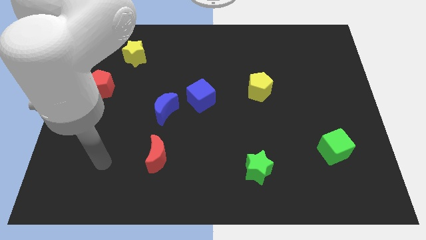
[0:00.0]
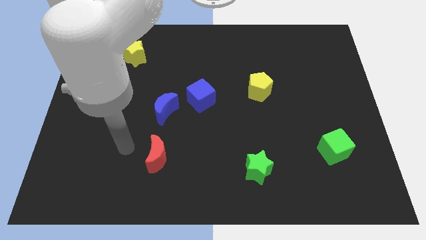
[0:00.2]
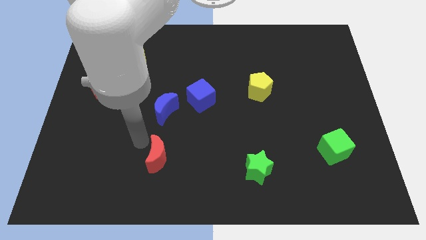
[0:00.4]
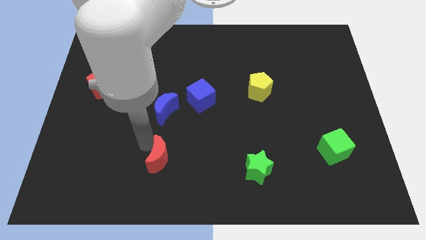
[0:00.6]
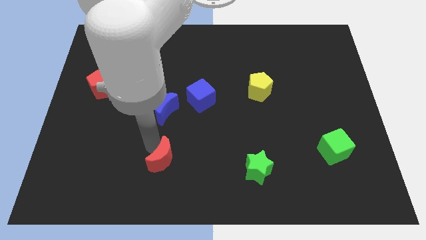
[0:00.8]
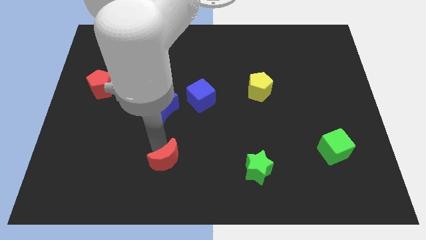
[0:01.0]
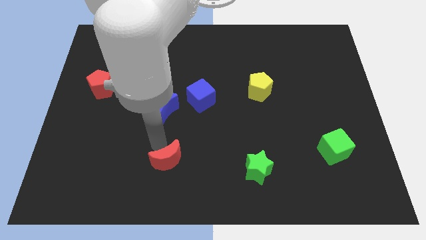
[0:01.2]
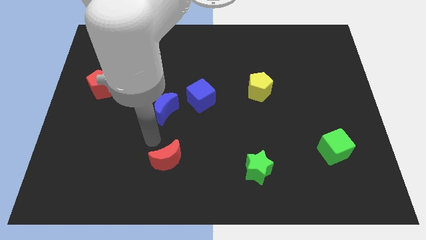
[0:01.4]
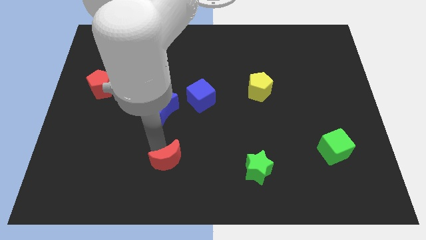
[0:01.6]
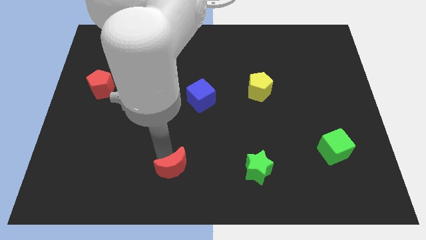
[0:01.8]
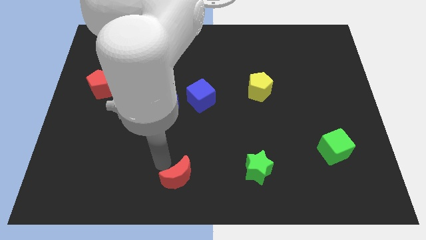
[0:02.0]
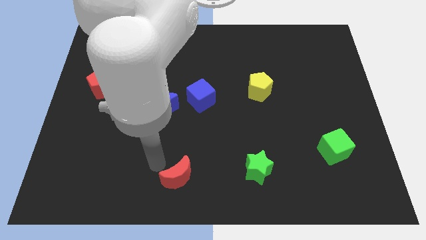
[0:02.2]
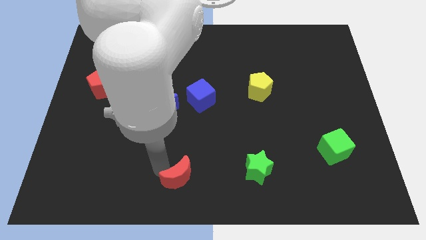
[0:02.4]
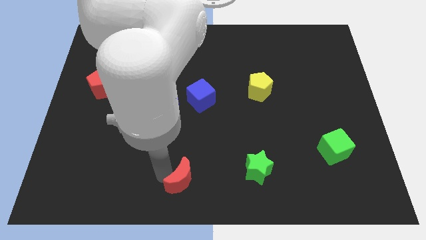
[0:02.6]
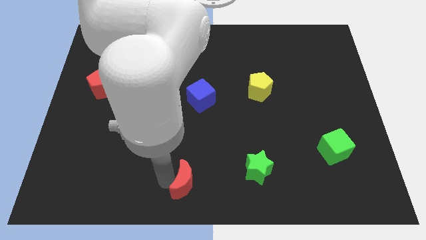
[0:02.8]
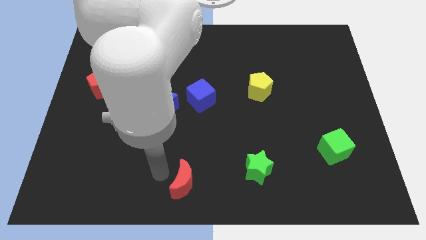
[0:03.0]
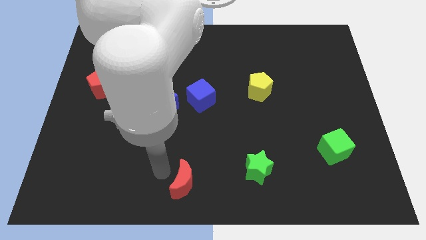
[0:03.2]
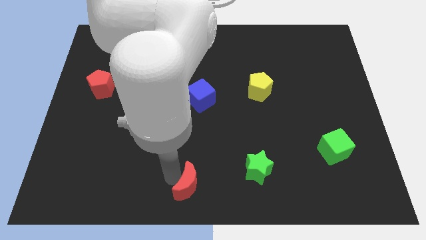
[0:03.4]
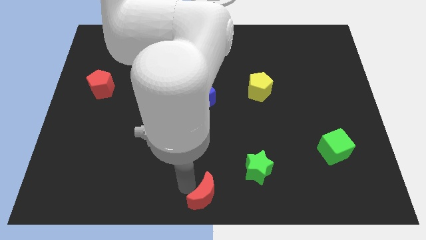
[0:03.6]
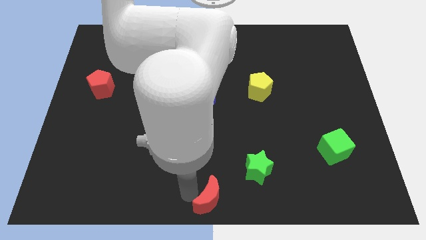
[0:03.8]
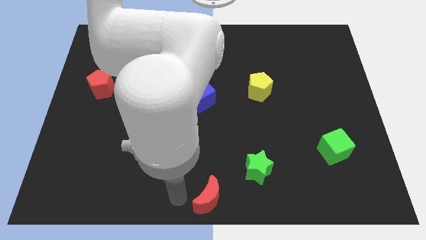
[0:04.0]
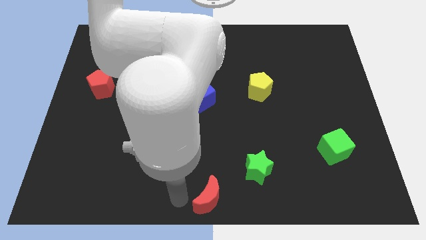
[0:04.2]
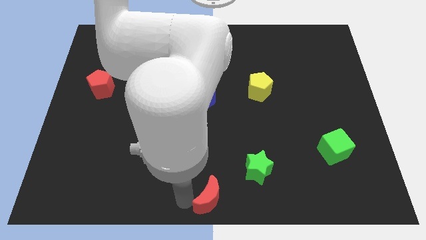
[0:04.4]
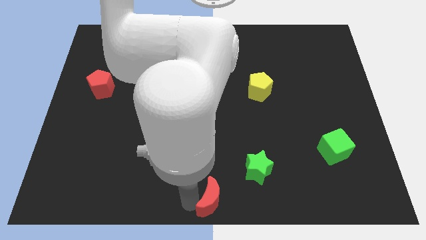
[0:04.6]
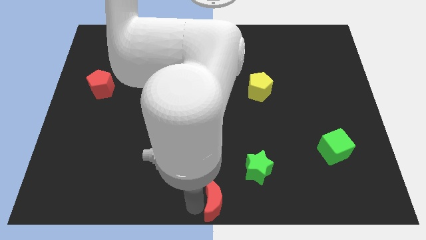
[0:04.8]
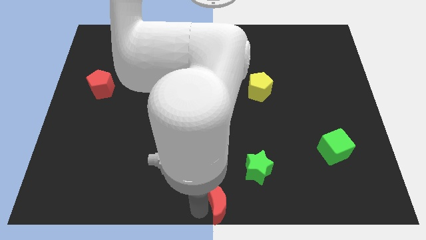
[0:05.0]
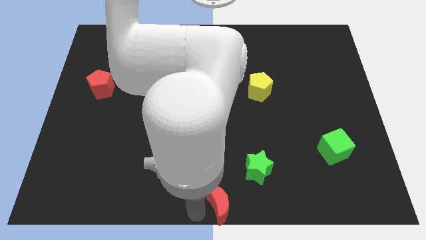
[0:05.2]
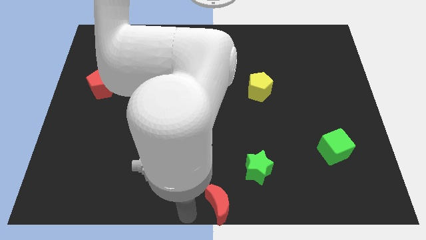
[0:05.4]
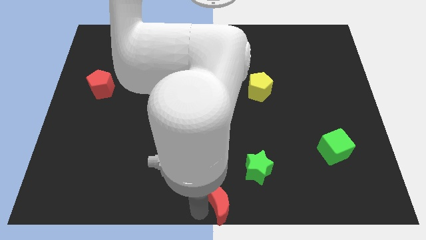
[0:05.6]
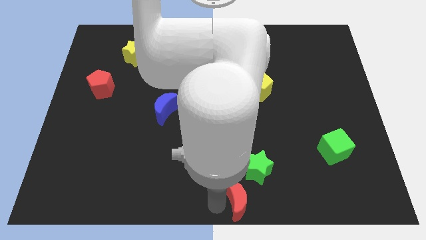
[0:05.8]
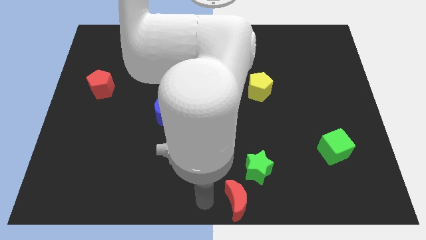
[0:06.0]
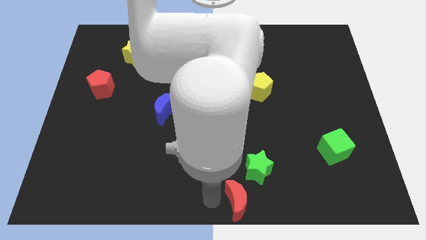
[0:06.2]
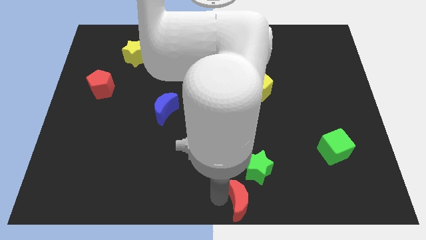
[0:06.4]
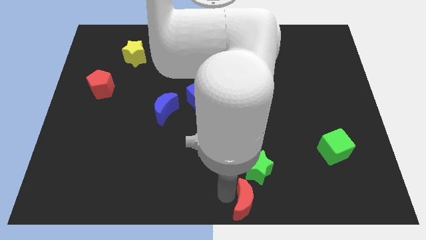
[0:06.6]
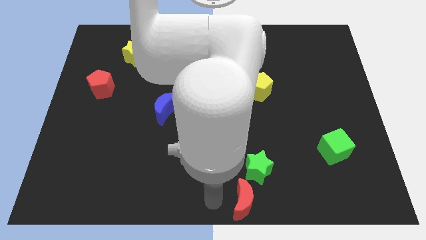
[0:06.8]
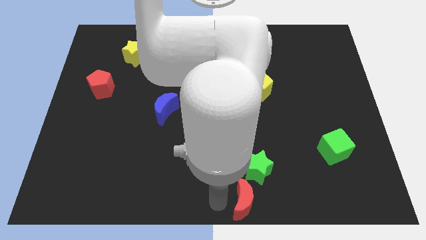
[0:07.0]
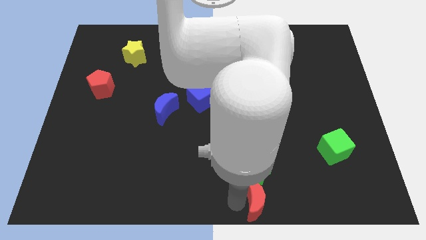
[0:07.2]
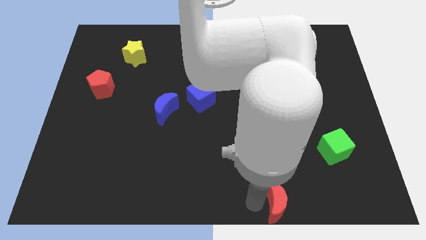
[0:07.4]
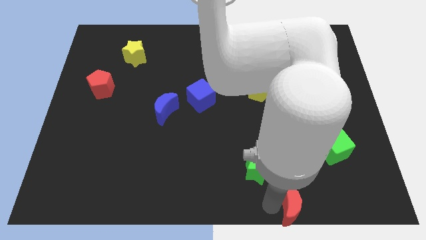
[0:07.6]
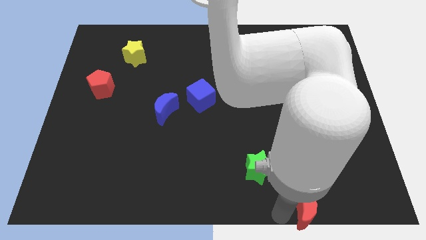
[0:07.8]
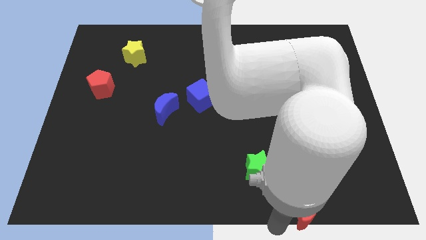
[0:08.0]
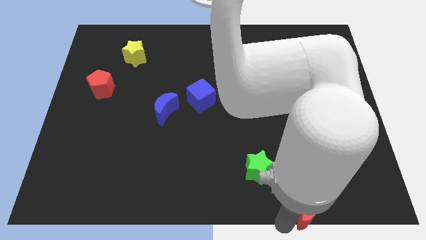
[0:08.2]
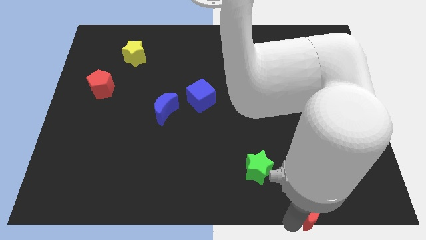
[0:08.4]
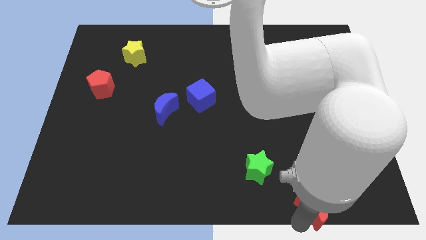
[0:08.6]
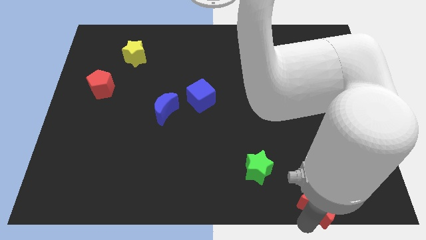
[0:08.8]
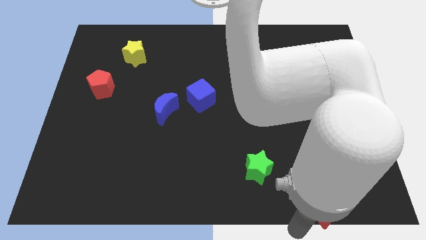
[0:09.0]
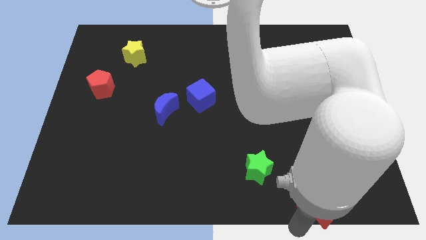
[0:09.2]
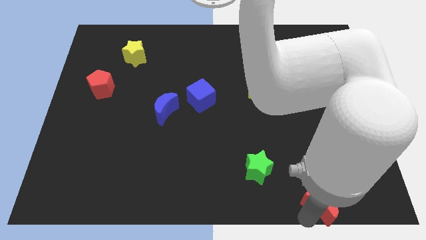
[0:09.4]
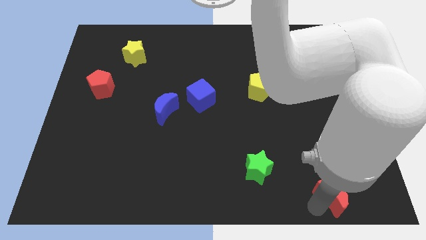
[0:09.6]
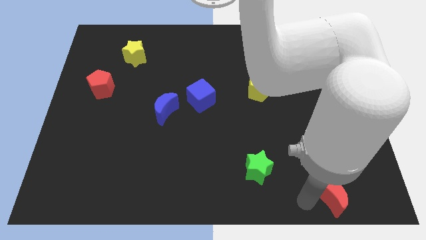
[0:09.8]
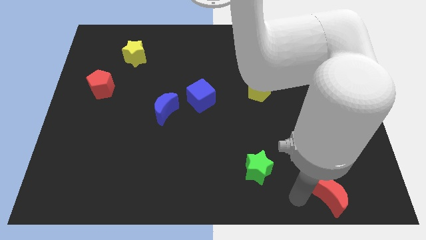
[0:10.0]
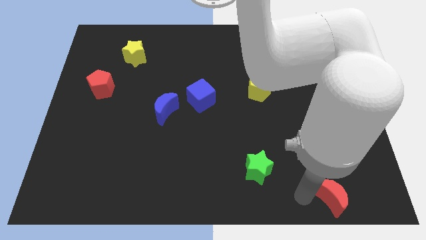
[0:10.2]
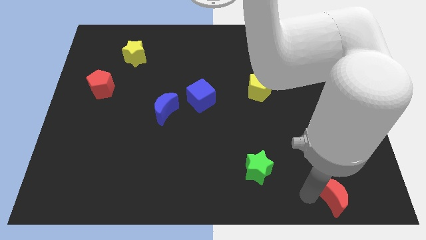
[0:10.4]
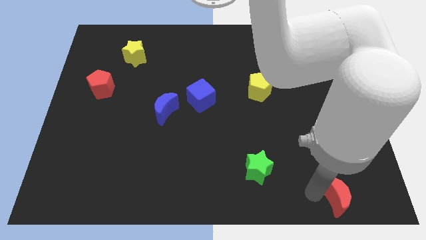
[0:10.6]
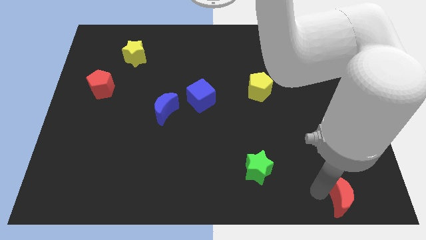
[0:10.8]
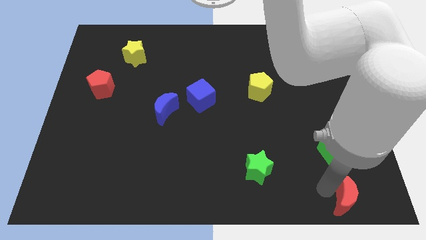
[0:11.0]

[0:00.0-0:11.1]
slide the red moon to the lower right corner
